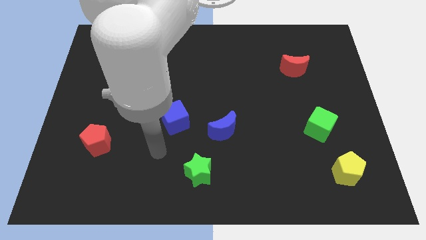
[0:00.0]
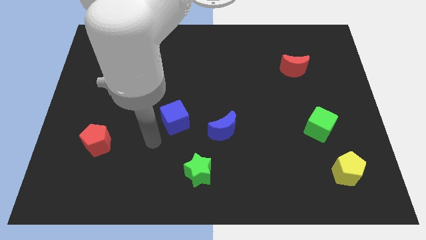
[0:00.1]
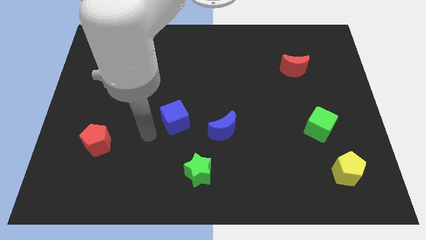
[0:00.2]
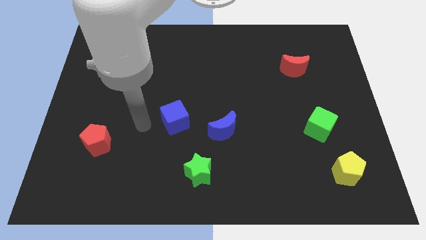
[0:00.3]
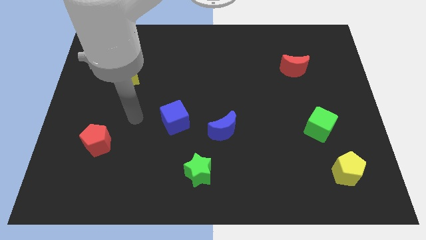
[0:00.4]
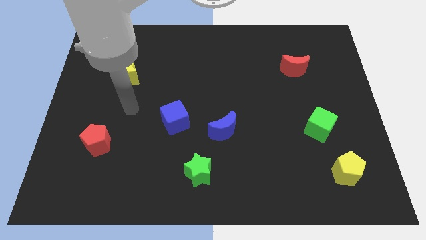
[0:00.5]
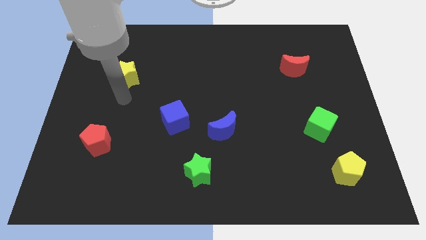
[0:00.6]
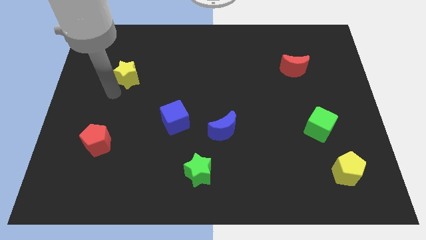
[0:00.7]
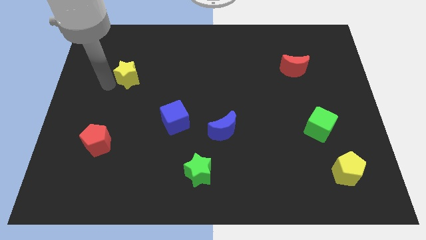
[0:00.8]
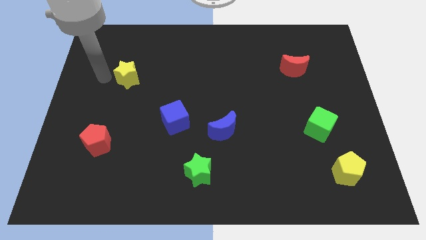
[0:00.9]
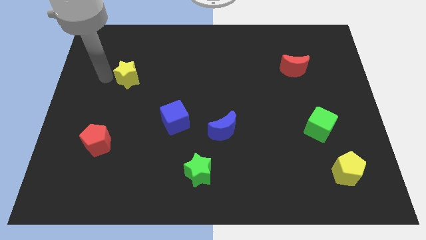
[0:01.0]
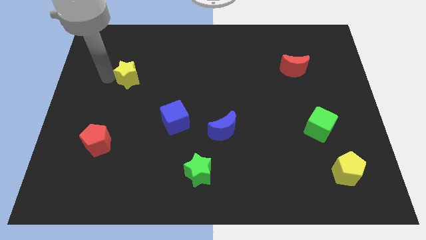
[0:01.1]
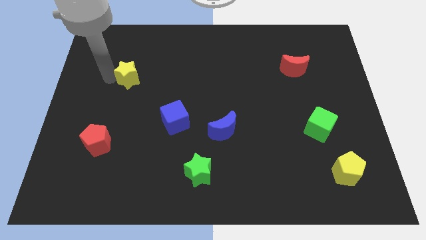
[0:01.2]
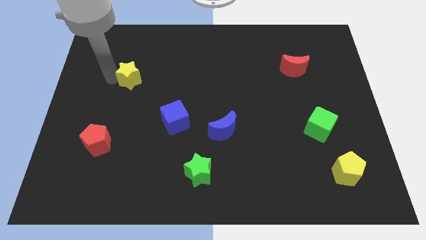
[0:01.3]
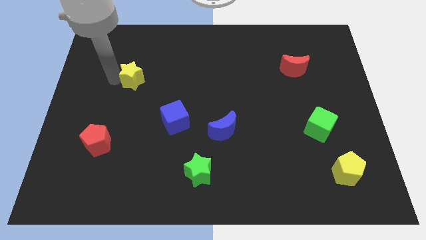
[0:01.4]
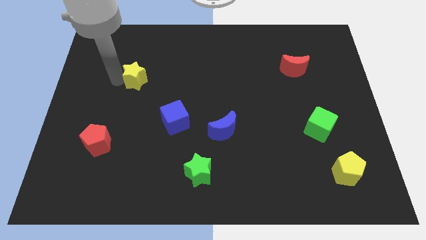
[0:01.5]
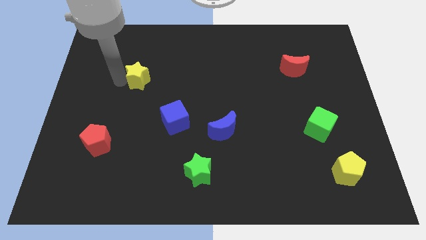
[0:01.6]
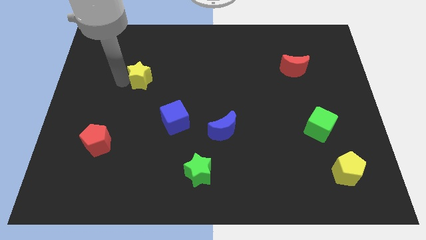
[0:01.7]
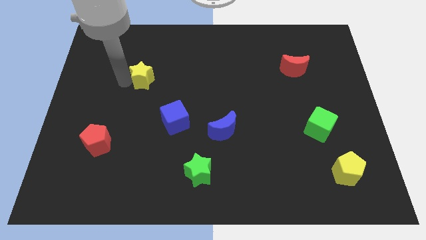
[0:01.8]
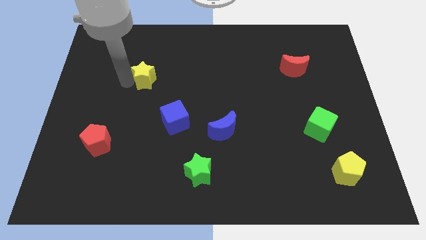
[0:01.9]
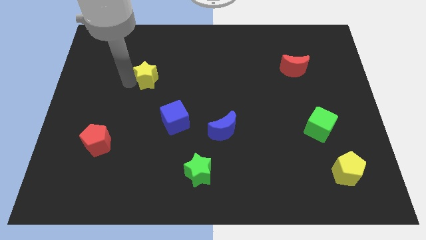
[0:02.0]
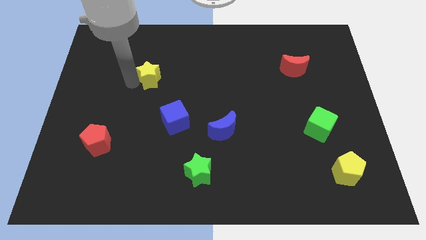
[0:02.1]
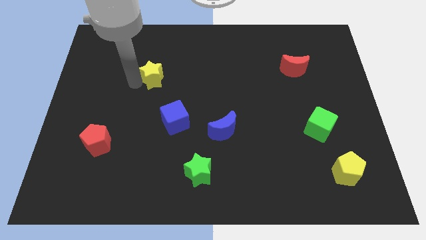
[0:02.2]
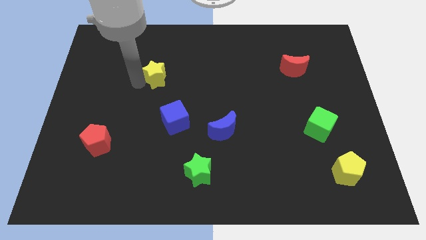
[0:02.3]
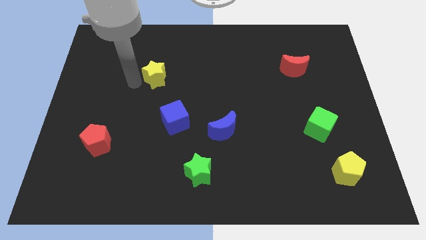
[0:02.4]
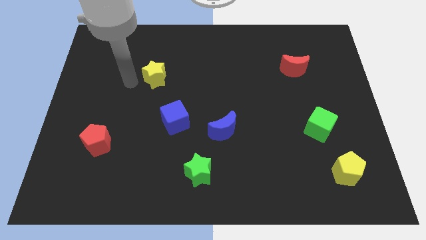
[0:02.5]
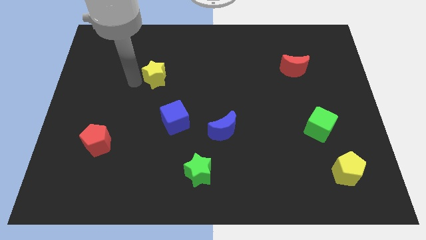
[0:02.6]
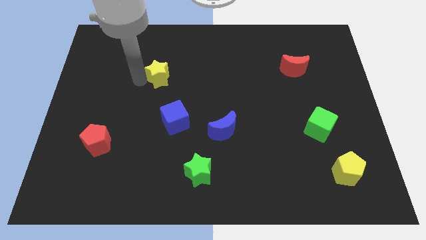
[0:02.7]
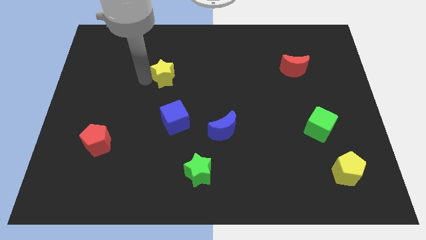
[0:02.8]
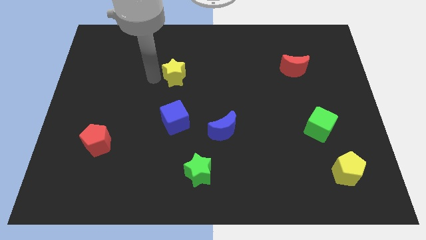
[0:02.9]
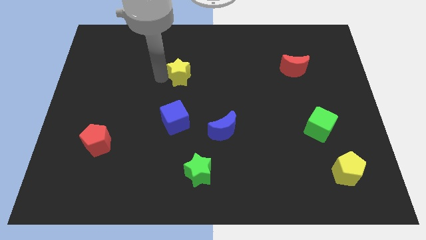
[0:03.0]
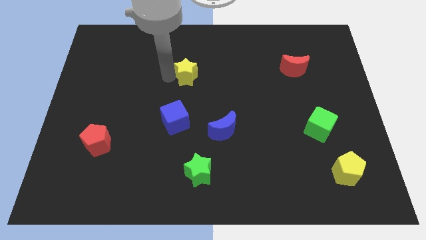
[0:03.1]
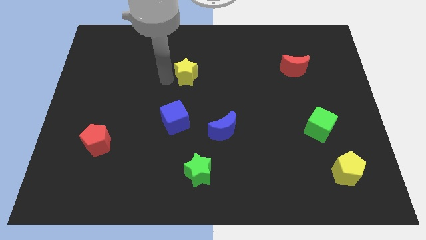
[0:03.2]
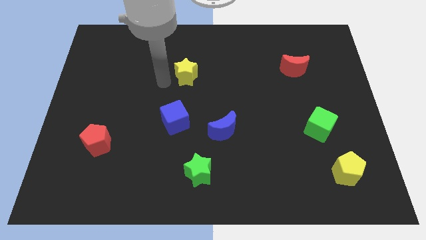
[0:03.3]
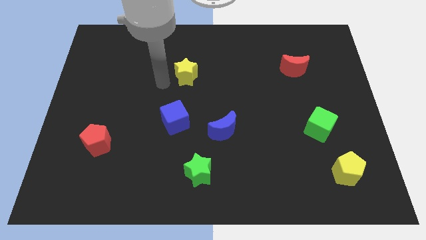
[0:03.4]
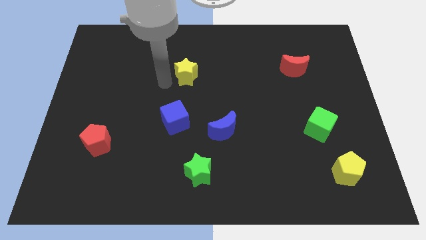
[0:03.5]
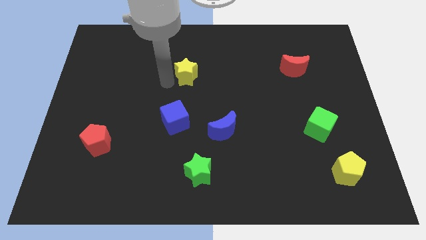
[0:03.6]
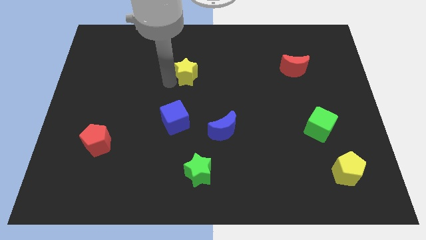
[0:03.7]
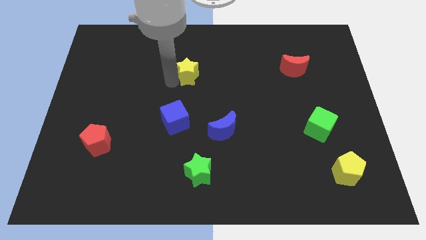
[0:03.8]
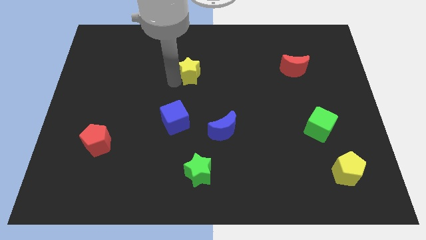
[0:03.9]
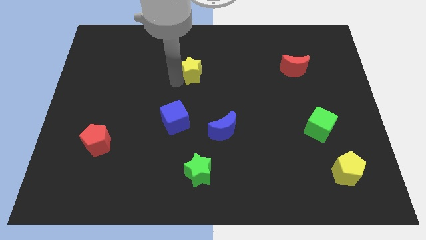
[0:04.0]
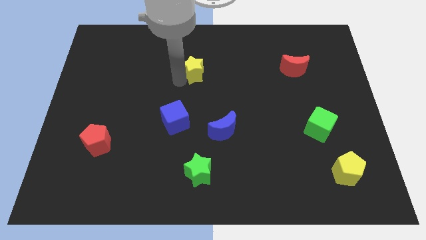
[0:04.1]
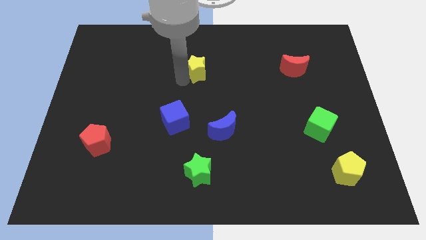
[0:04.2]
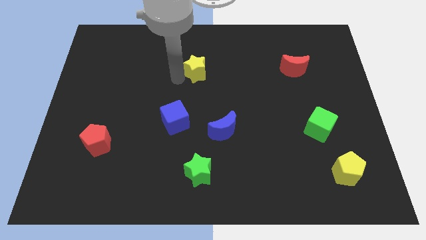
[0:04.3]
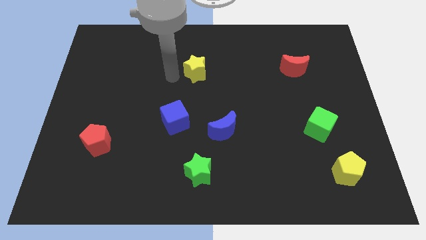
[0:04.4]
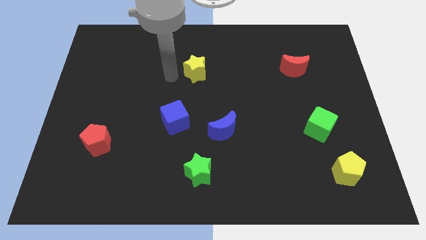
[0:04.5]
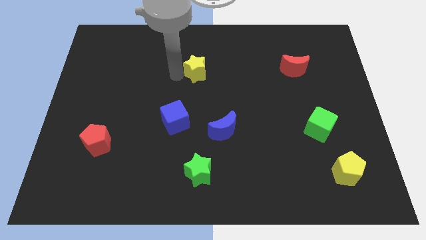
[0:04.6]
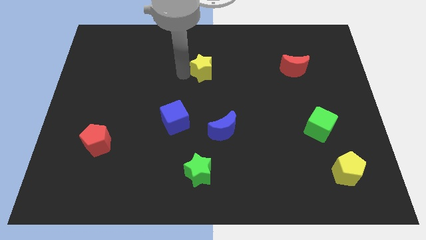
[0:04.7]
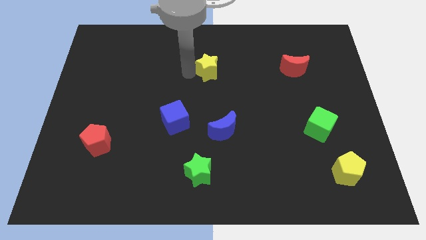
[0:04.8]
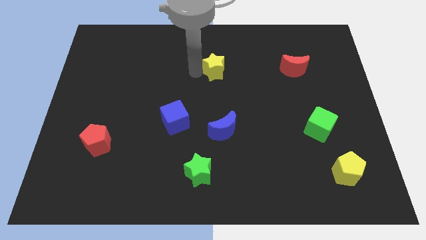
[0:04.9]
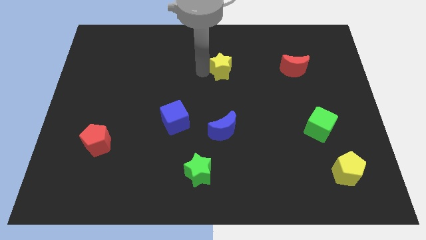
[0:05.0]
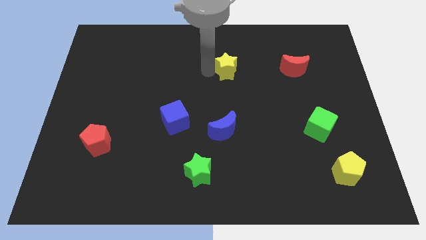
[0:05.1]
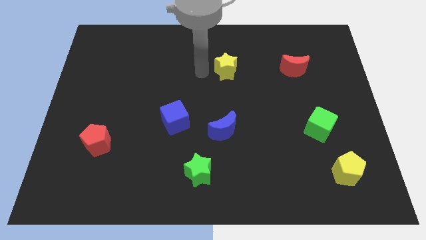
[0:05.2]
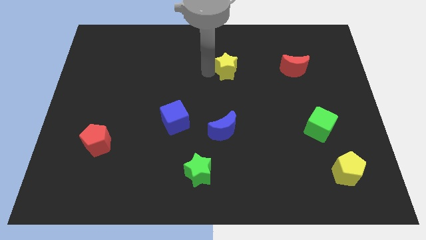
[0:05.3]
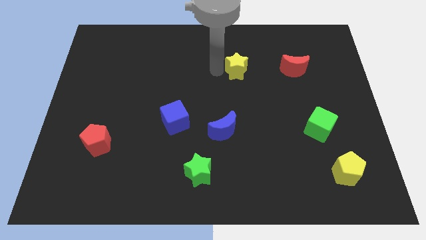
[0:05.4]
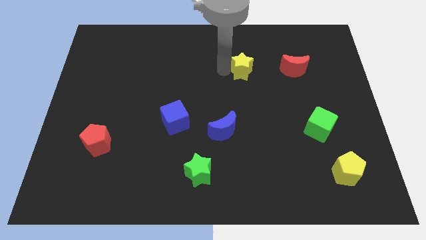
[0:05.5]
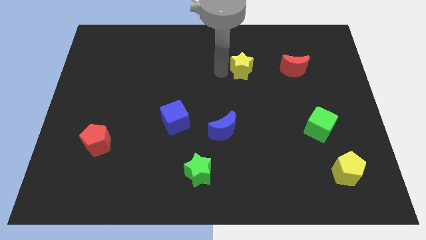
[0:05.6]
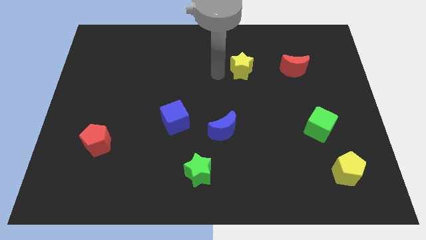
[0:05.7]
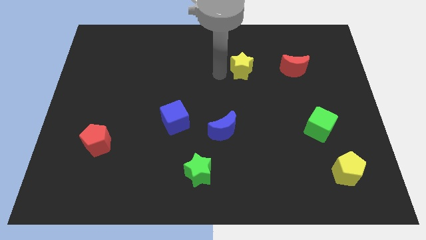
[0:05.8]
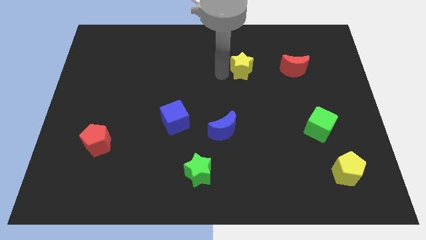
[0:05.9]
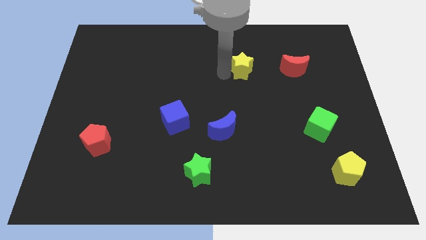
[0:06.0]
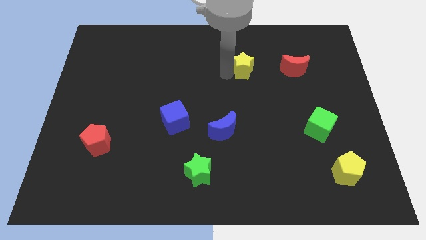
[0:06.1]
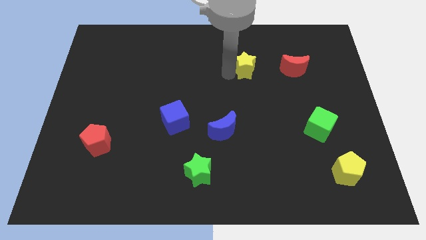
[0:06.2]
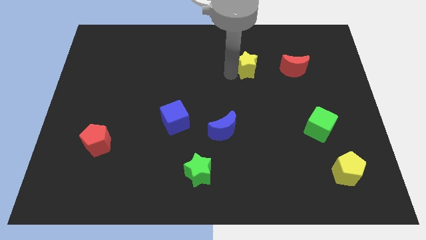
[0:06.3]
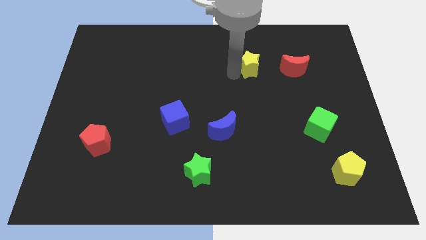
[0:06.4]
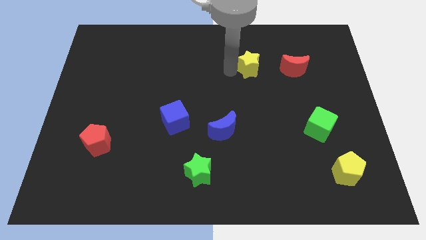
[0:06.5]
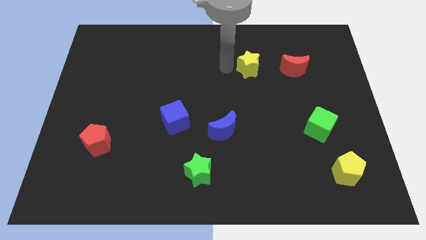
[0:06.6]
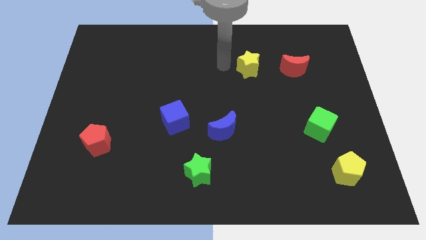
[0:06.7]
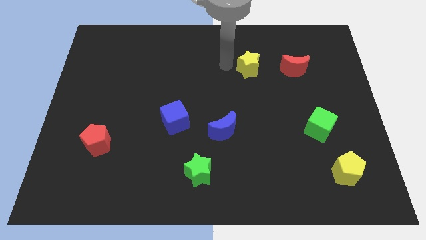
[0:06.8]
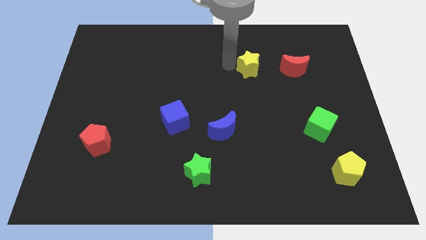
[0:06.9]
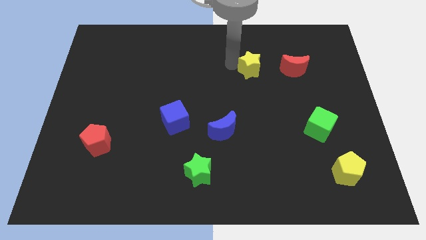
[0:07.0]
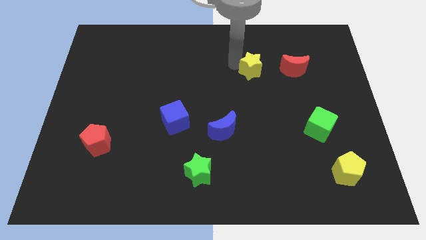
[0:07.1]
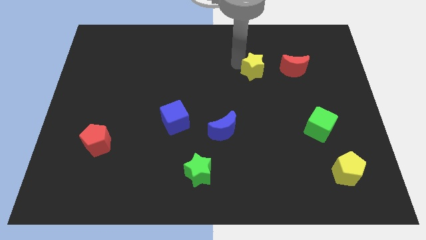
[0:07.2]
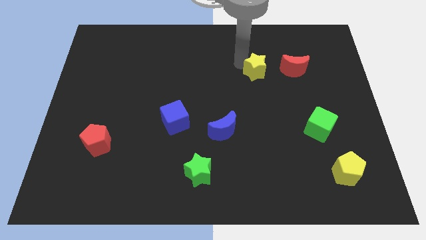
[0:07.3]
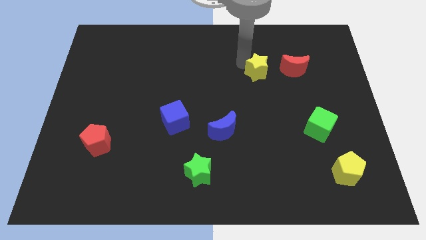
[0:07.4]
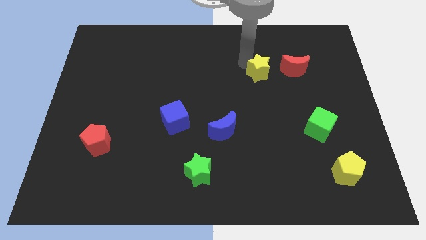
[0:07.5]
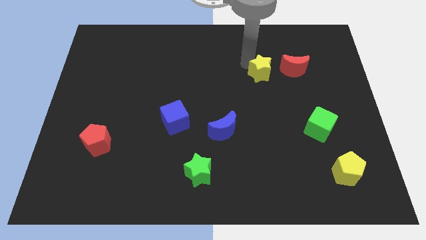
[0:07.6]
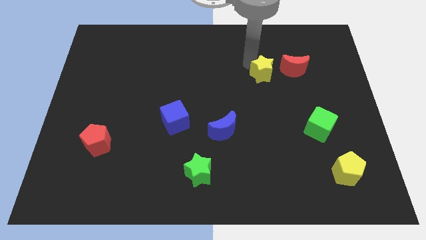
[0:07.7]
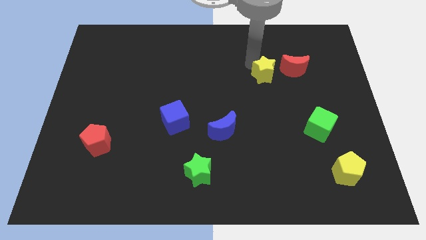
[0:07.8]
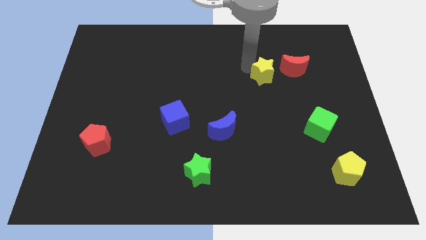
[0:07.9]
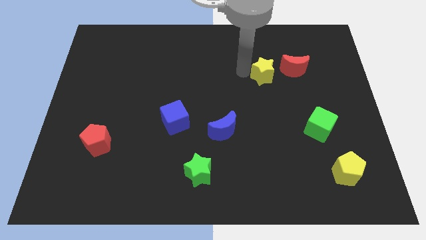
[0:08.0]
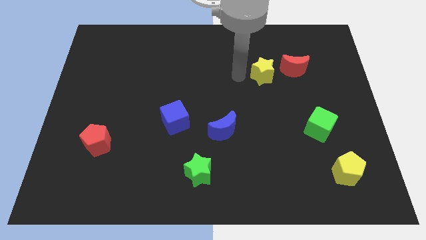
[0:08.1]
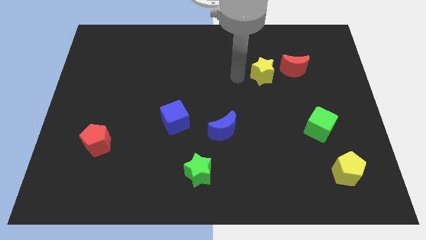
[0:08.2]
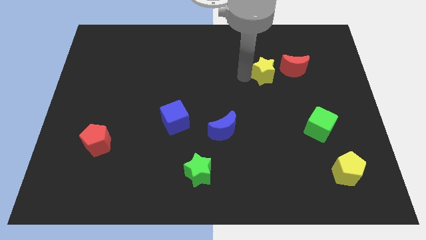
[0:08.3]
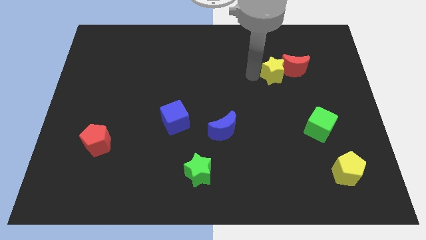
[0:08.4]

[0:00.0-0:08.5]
push the yellow star next to the red moon
